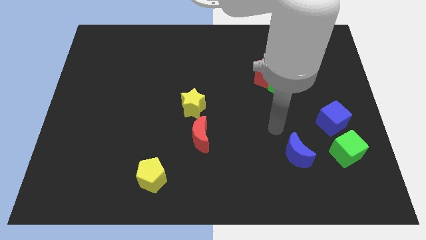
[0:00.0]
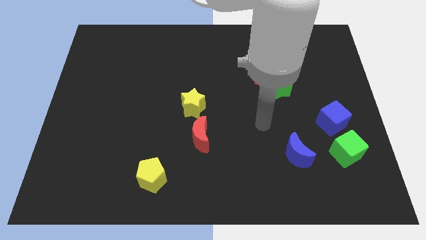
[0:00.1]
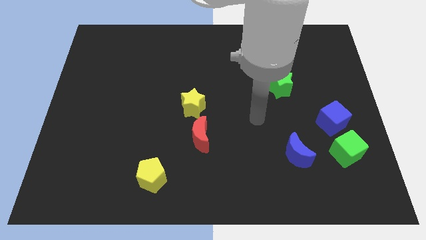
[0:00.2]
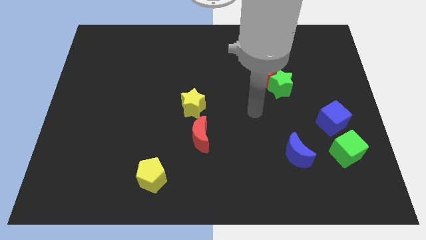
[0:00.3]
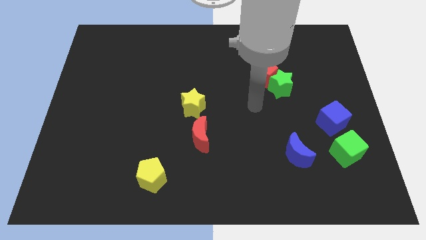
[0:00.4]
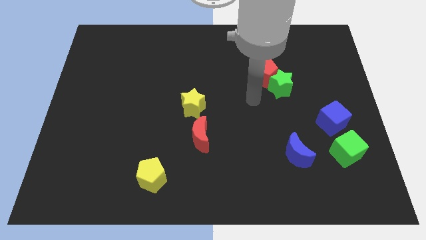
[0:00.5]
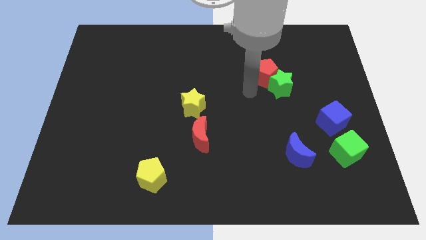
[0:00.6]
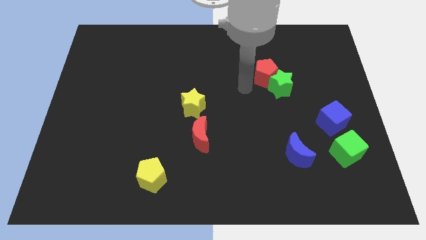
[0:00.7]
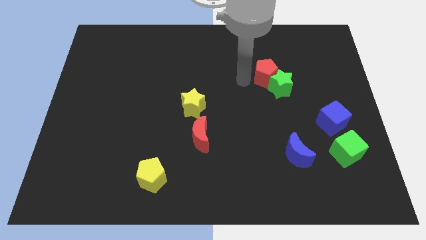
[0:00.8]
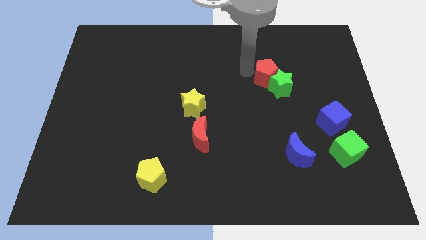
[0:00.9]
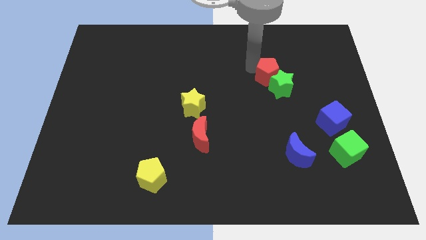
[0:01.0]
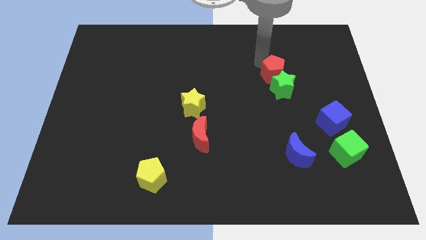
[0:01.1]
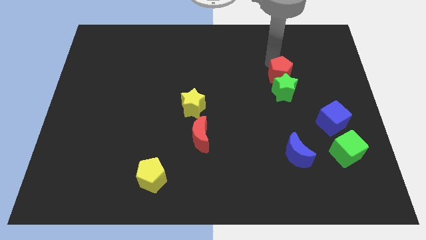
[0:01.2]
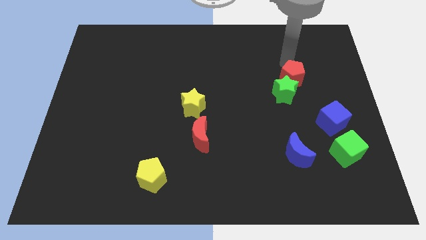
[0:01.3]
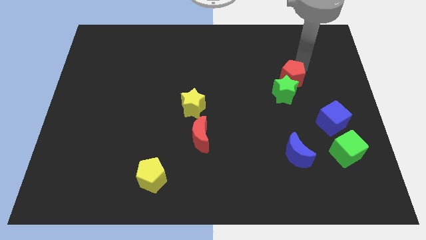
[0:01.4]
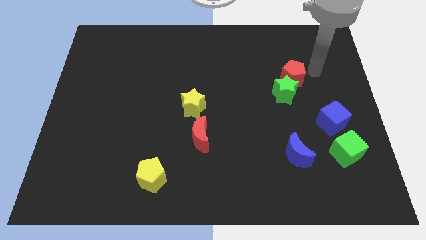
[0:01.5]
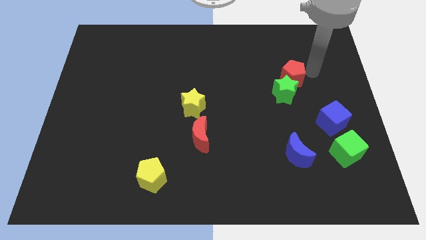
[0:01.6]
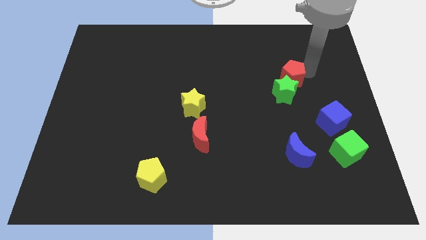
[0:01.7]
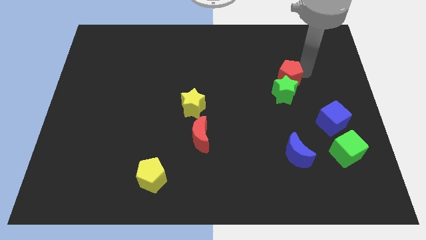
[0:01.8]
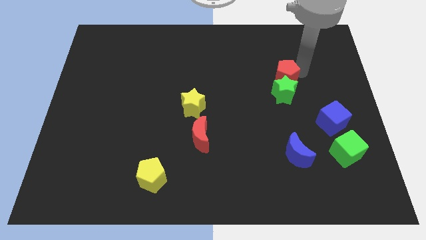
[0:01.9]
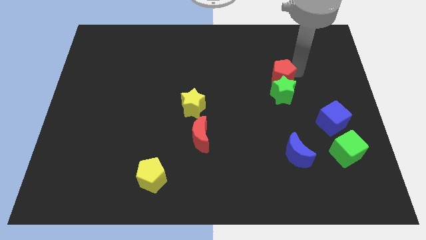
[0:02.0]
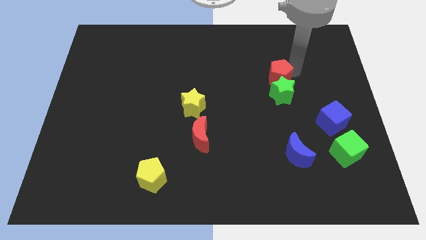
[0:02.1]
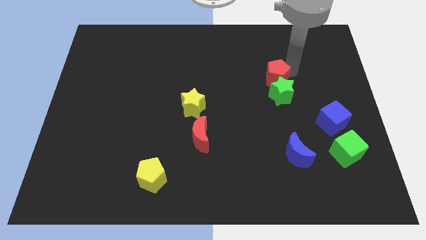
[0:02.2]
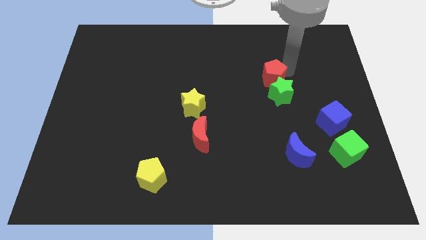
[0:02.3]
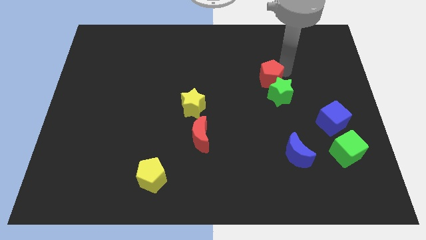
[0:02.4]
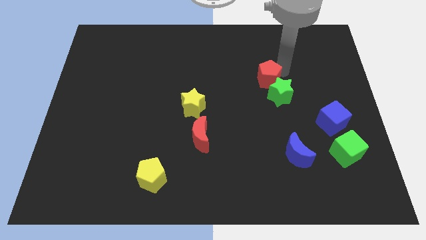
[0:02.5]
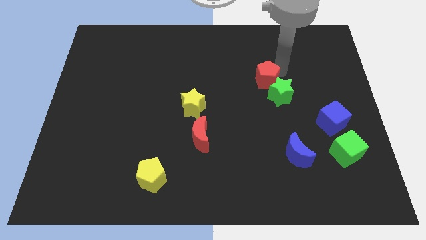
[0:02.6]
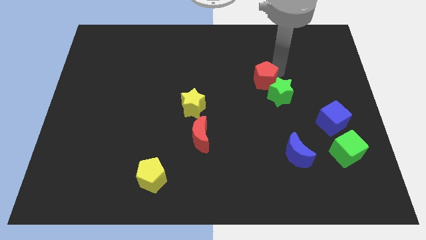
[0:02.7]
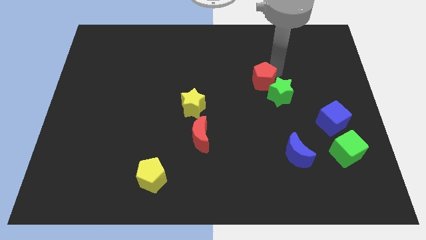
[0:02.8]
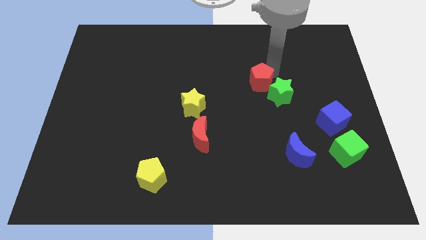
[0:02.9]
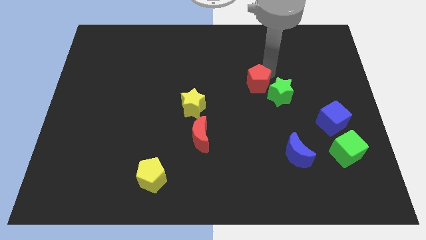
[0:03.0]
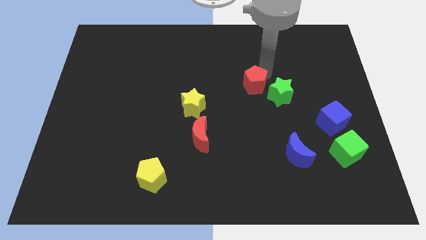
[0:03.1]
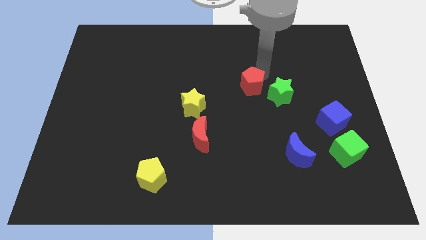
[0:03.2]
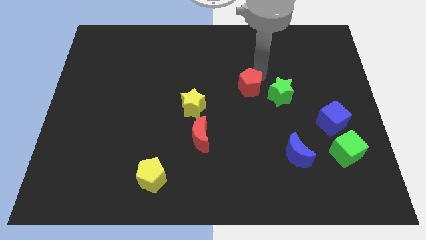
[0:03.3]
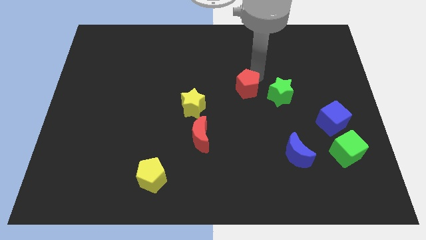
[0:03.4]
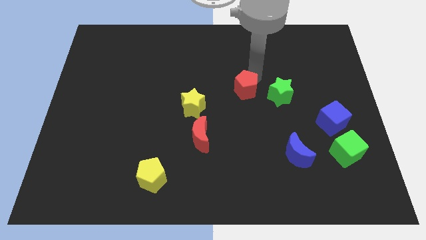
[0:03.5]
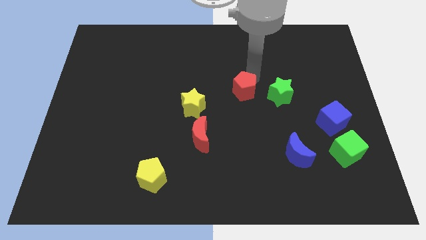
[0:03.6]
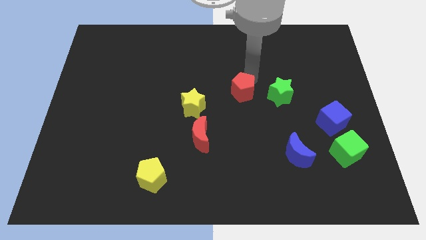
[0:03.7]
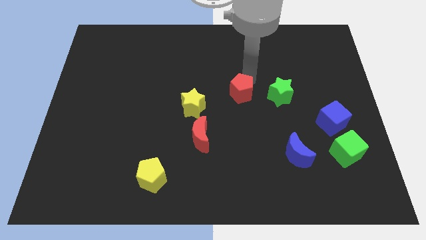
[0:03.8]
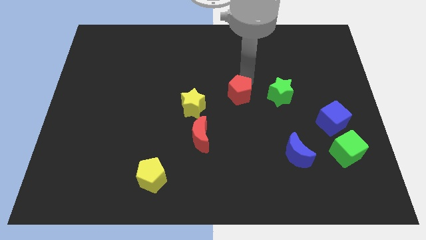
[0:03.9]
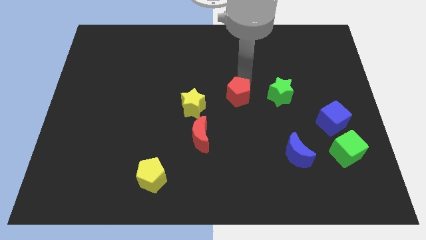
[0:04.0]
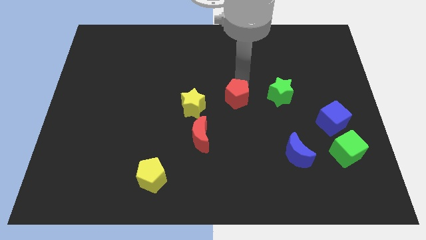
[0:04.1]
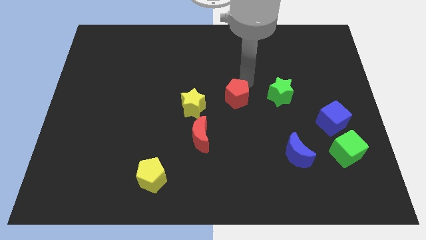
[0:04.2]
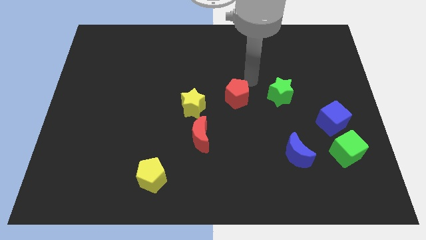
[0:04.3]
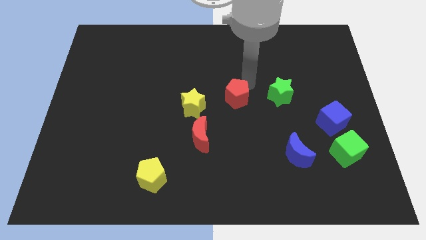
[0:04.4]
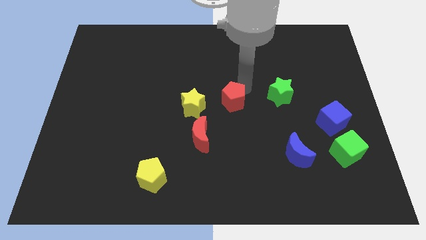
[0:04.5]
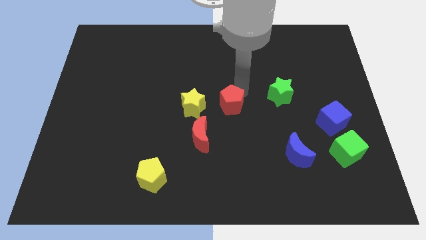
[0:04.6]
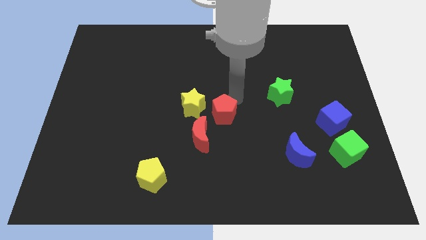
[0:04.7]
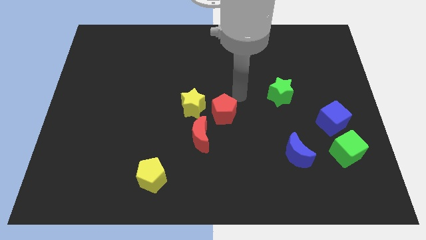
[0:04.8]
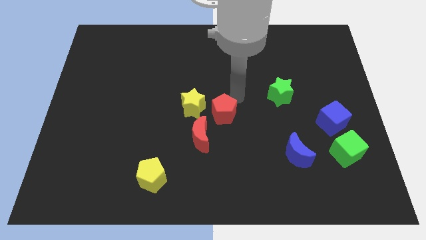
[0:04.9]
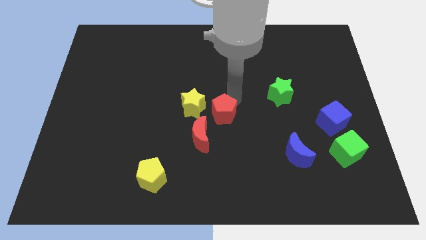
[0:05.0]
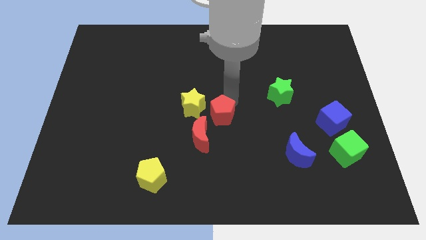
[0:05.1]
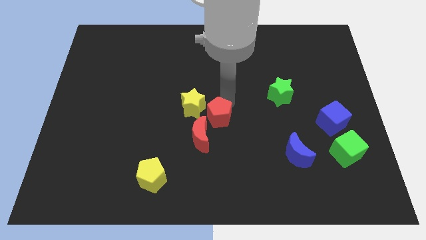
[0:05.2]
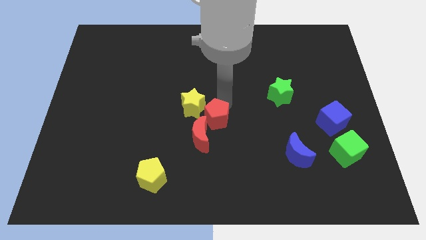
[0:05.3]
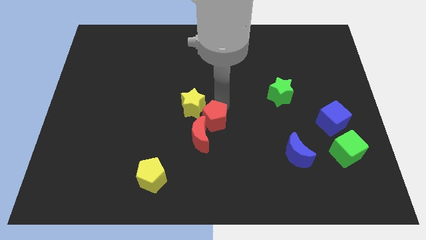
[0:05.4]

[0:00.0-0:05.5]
slide the red pentagon towards the red moon

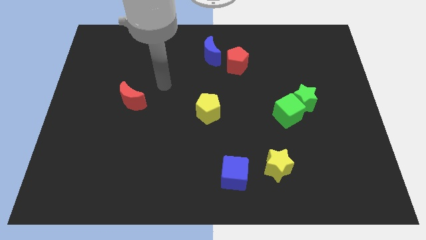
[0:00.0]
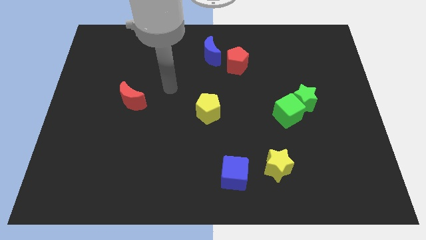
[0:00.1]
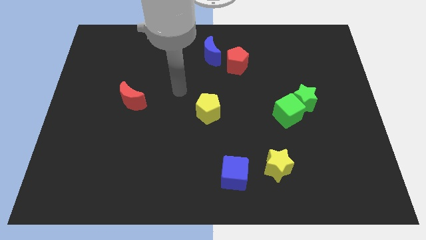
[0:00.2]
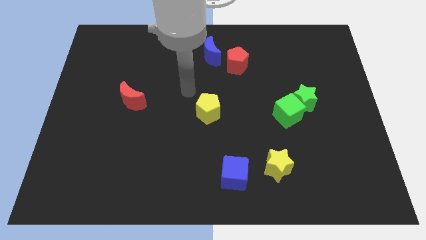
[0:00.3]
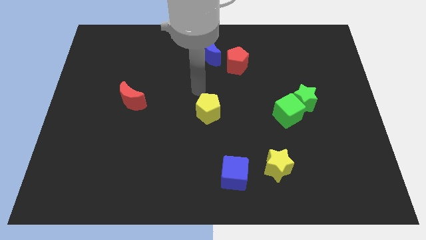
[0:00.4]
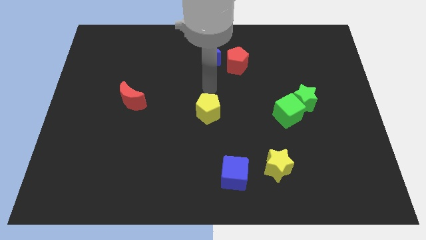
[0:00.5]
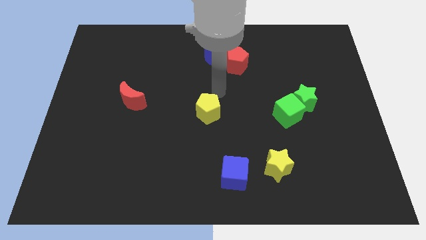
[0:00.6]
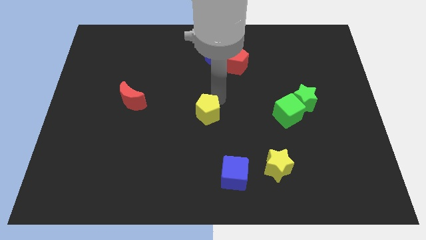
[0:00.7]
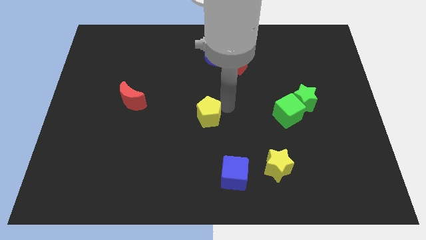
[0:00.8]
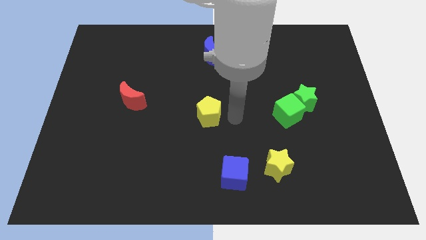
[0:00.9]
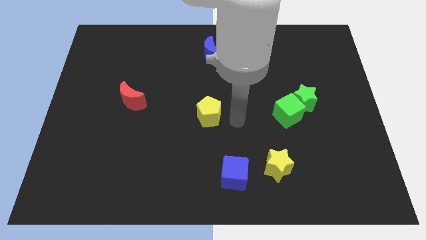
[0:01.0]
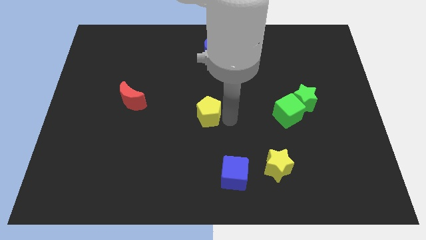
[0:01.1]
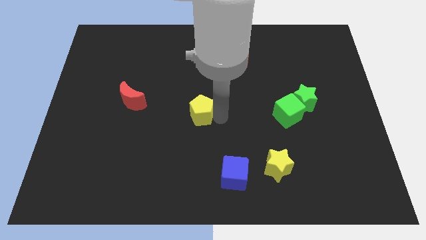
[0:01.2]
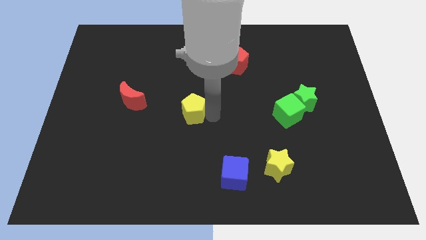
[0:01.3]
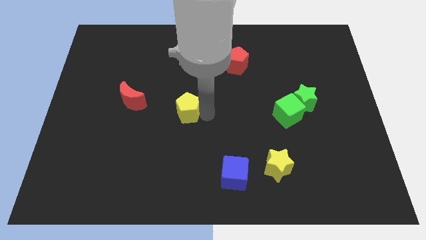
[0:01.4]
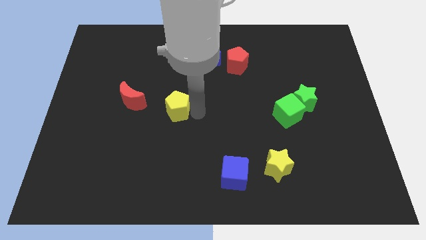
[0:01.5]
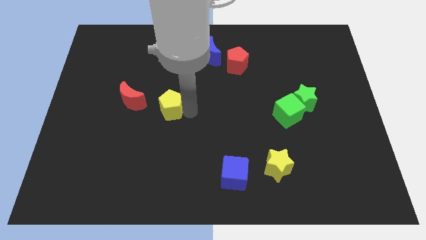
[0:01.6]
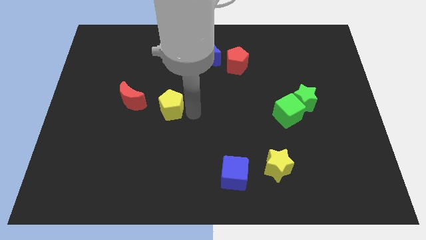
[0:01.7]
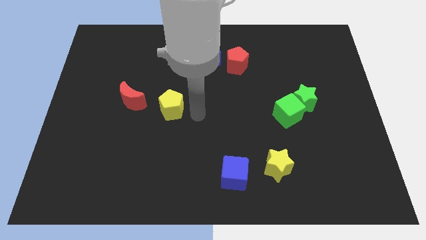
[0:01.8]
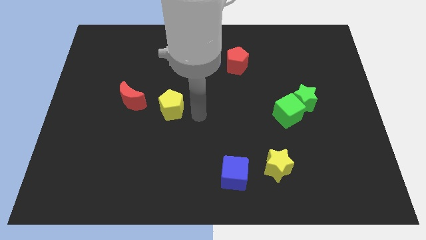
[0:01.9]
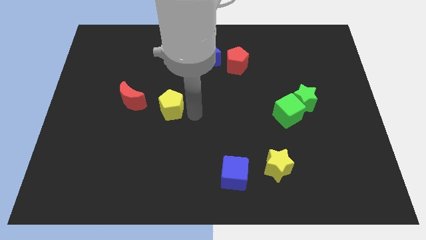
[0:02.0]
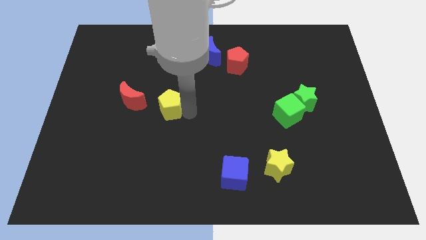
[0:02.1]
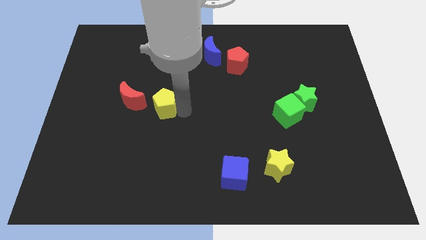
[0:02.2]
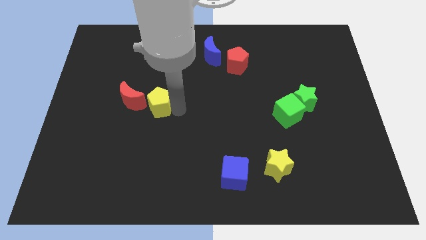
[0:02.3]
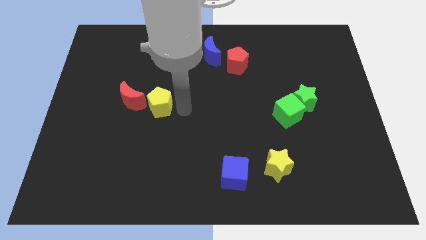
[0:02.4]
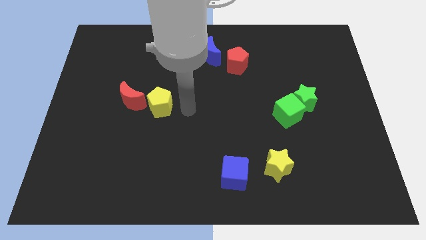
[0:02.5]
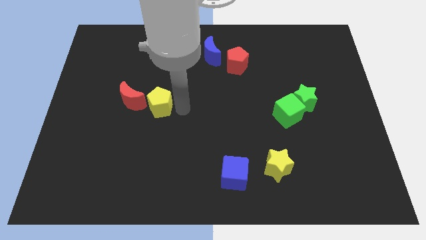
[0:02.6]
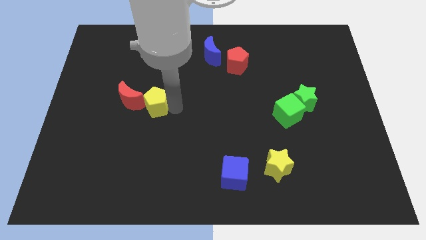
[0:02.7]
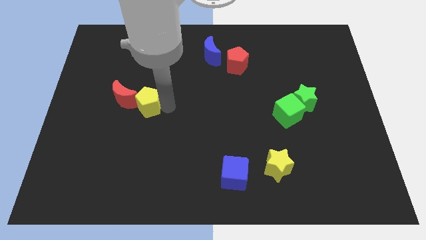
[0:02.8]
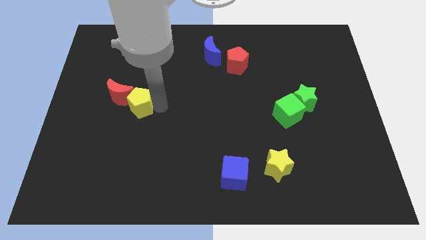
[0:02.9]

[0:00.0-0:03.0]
slide the yellow pentagon next to the red moon
